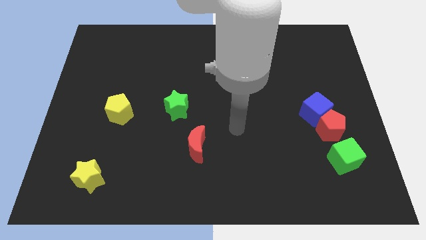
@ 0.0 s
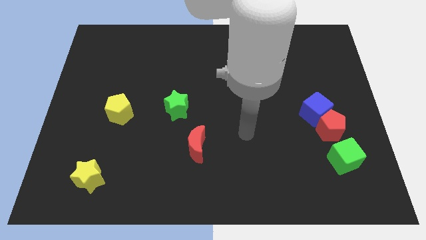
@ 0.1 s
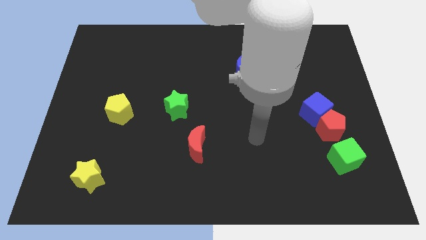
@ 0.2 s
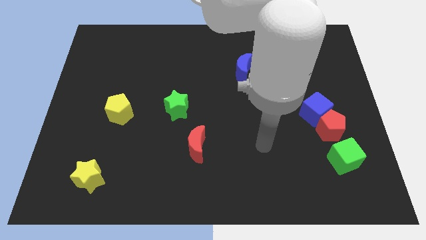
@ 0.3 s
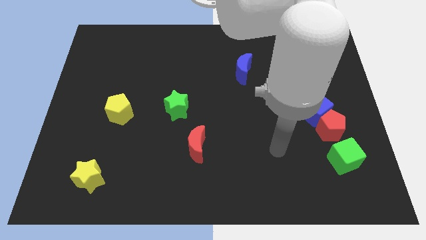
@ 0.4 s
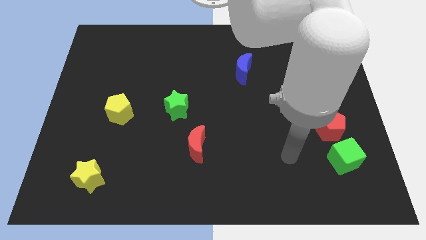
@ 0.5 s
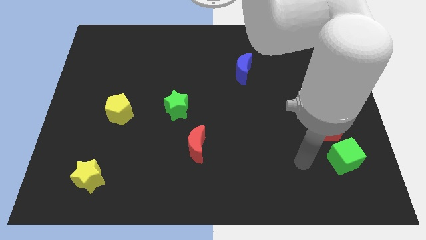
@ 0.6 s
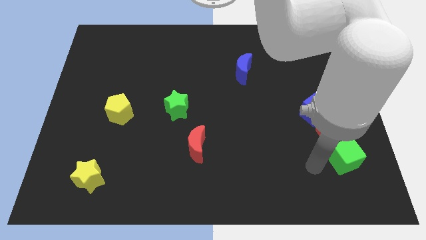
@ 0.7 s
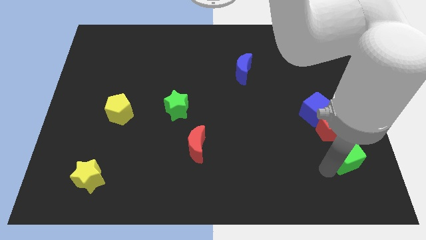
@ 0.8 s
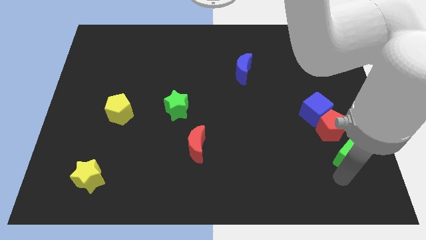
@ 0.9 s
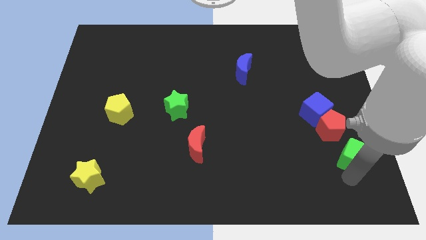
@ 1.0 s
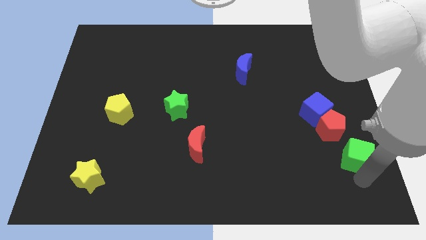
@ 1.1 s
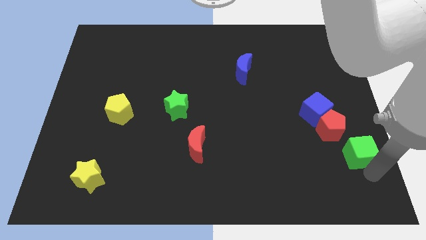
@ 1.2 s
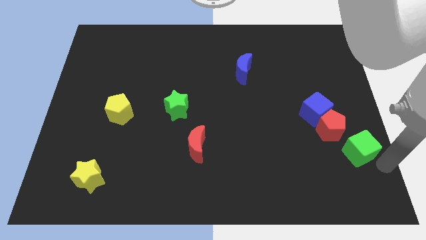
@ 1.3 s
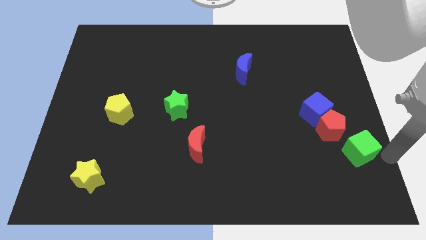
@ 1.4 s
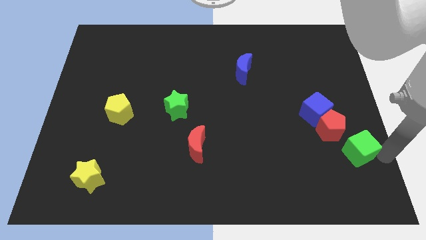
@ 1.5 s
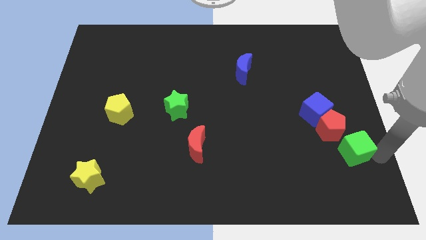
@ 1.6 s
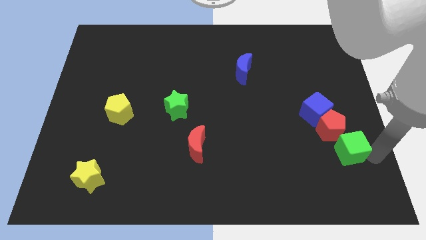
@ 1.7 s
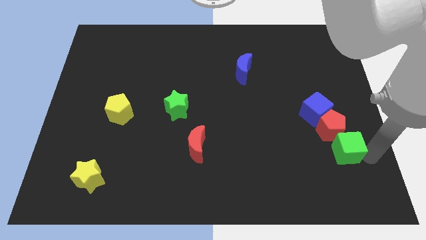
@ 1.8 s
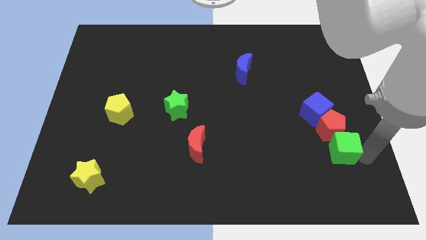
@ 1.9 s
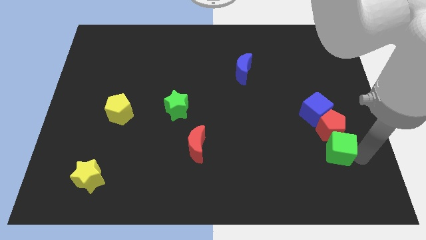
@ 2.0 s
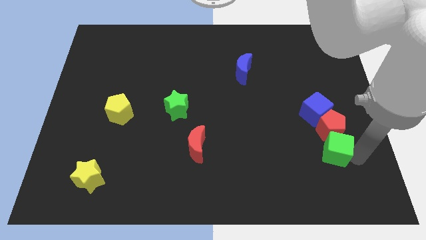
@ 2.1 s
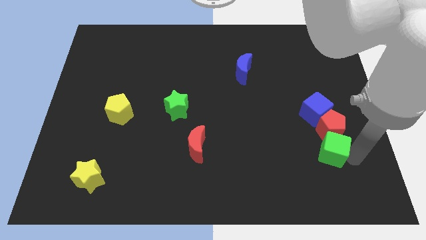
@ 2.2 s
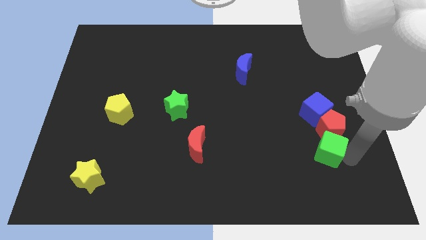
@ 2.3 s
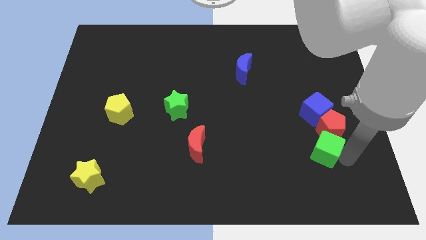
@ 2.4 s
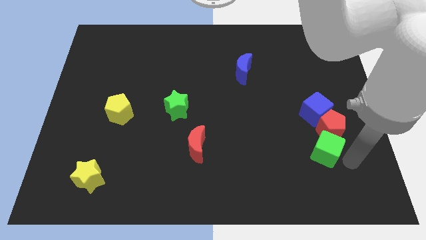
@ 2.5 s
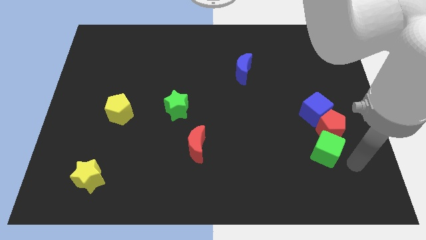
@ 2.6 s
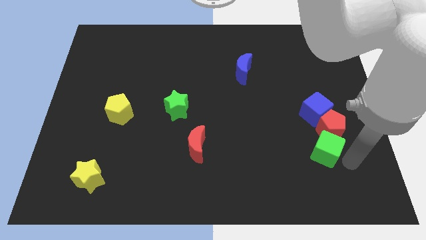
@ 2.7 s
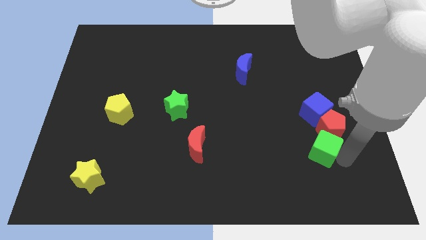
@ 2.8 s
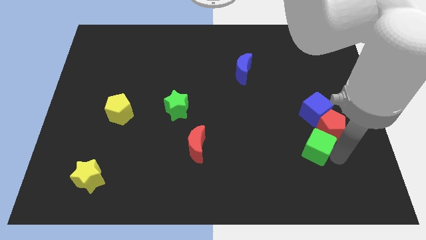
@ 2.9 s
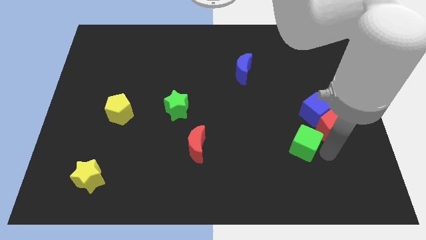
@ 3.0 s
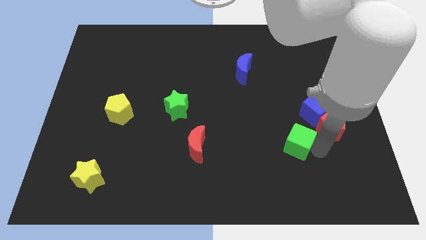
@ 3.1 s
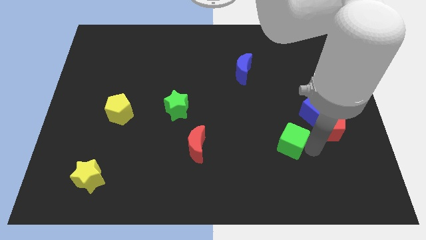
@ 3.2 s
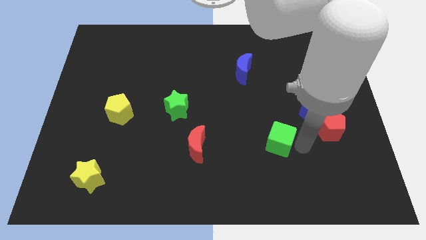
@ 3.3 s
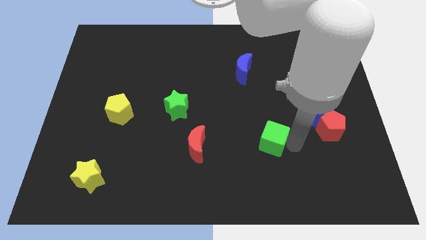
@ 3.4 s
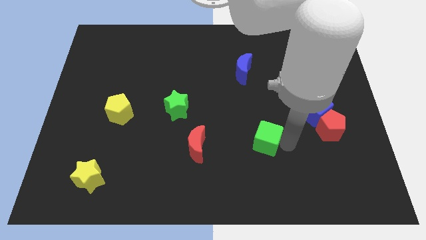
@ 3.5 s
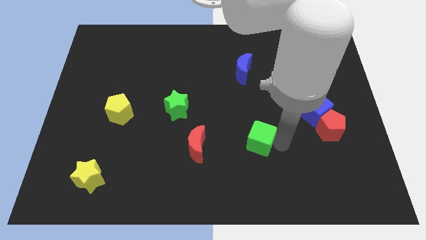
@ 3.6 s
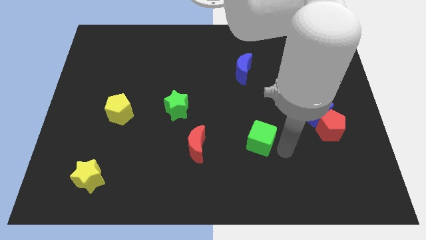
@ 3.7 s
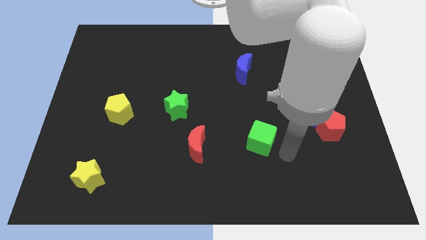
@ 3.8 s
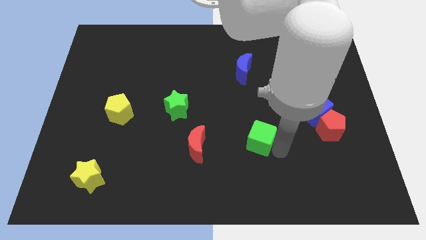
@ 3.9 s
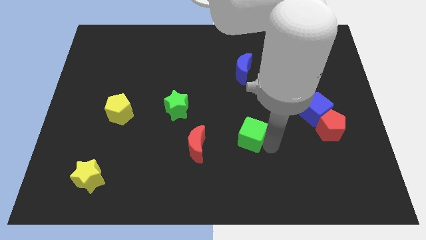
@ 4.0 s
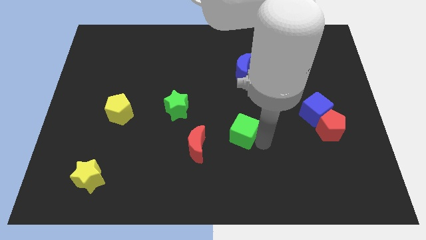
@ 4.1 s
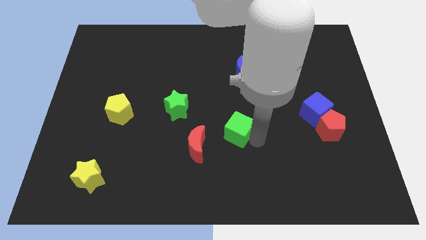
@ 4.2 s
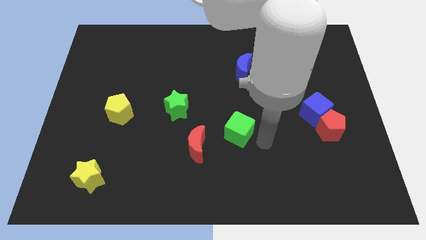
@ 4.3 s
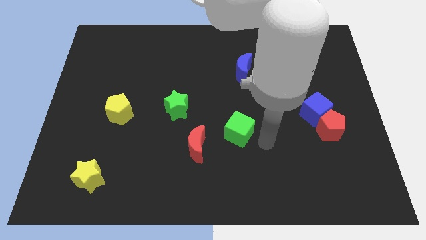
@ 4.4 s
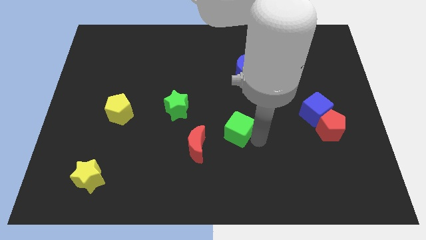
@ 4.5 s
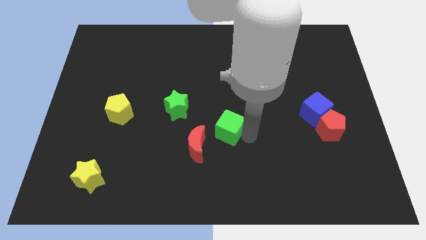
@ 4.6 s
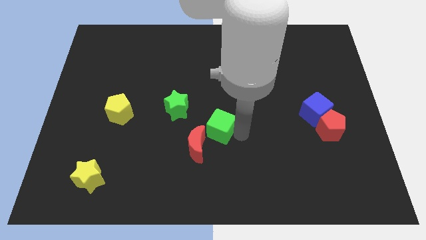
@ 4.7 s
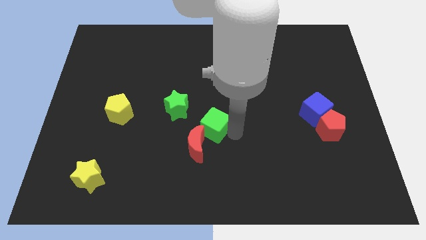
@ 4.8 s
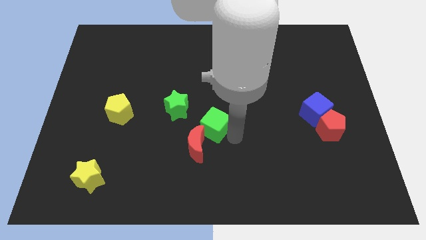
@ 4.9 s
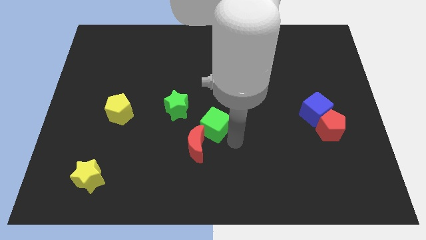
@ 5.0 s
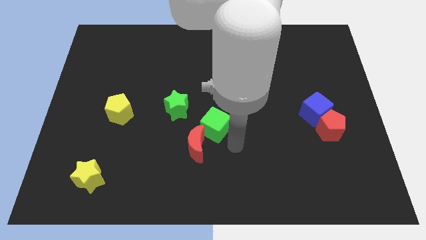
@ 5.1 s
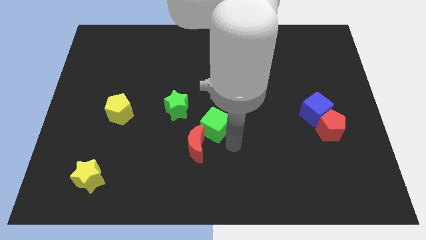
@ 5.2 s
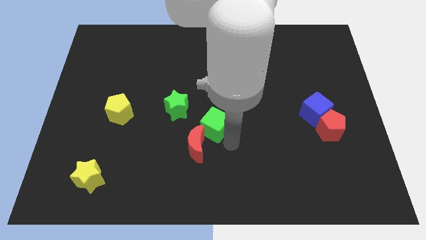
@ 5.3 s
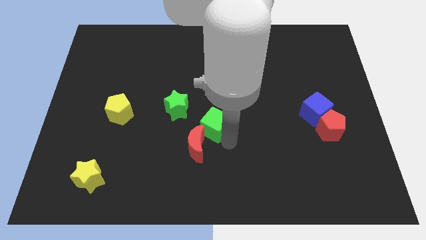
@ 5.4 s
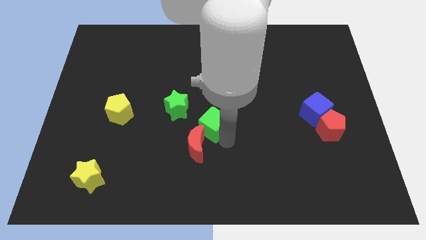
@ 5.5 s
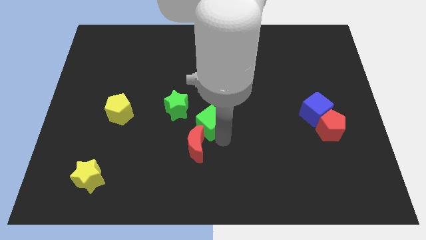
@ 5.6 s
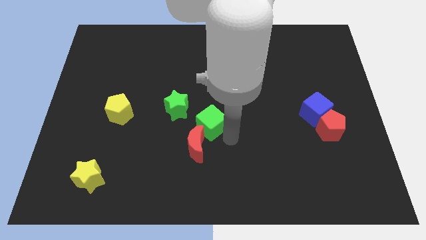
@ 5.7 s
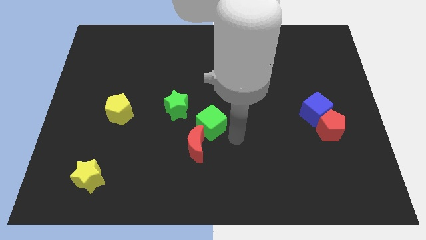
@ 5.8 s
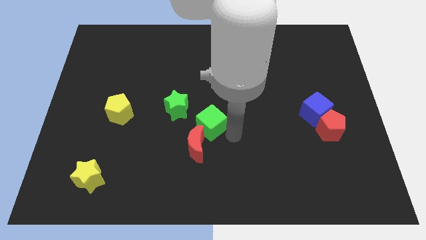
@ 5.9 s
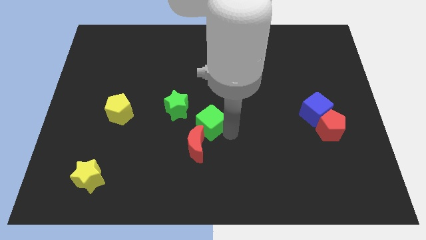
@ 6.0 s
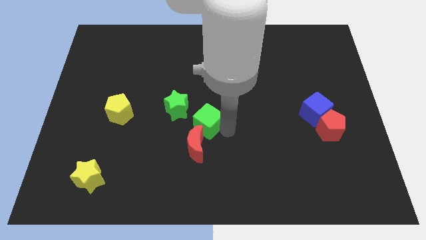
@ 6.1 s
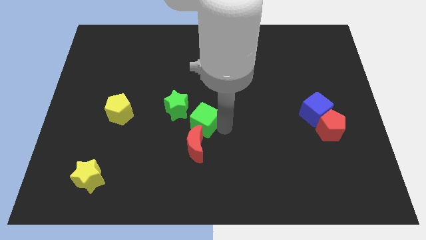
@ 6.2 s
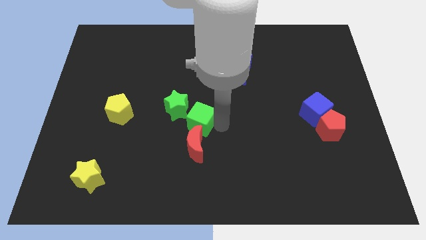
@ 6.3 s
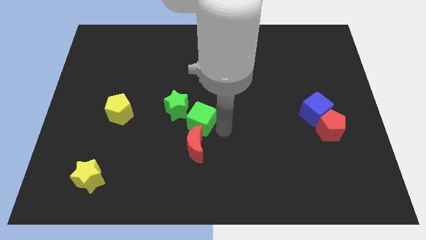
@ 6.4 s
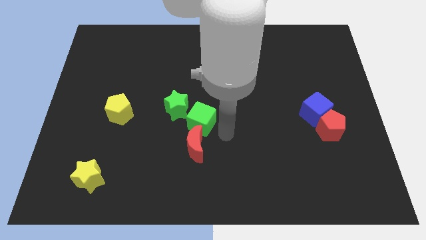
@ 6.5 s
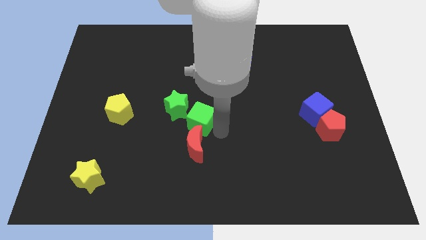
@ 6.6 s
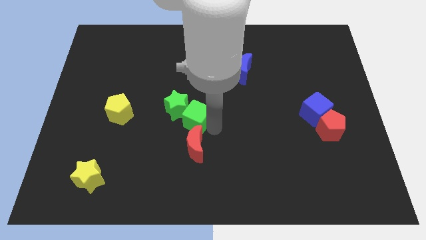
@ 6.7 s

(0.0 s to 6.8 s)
push the green cube close to the green star

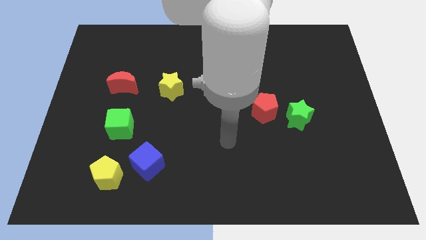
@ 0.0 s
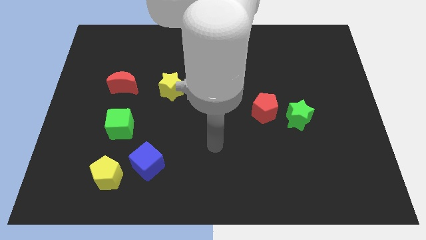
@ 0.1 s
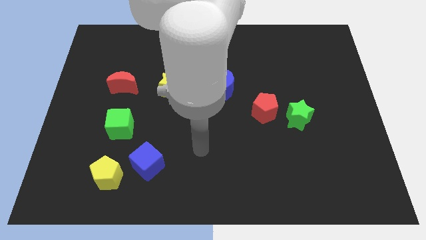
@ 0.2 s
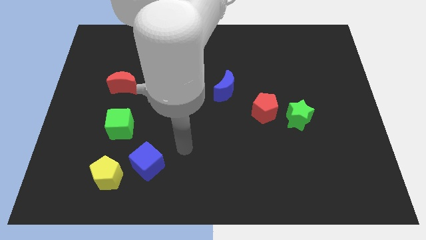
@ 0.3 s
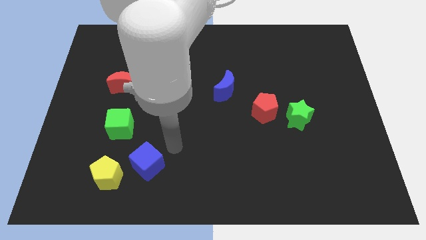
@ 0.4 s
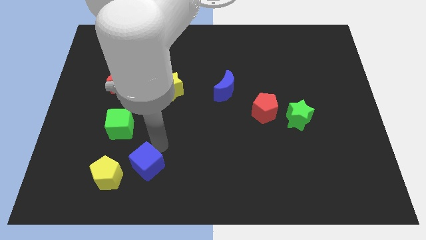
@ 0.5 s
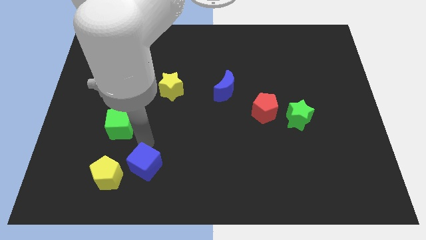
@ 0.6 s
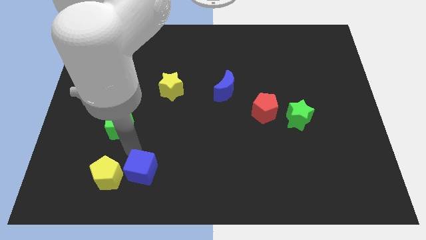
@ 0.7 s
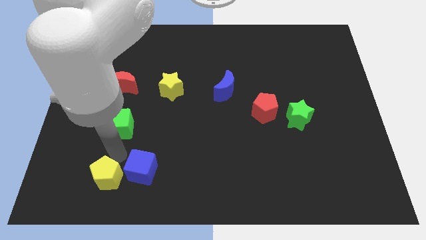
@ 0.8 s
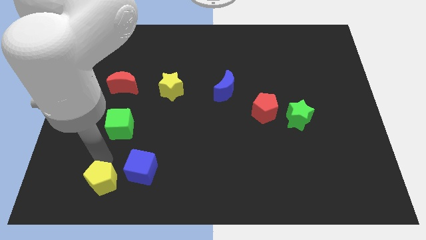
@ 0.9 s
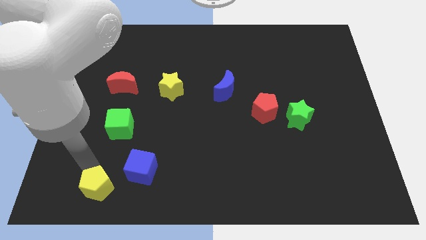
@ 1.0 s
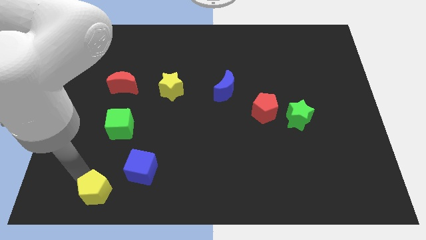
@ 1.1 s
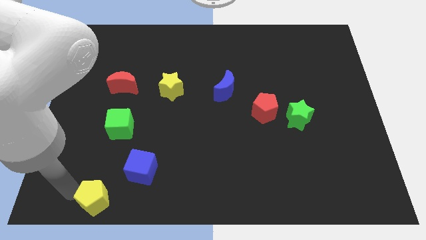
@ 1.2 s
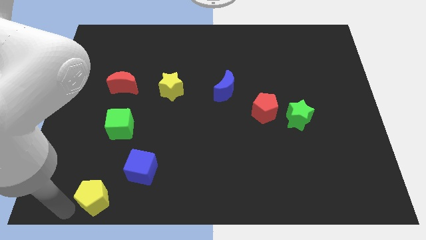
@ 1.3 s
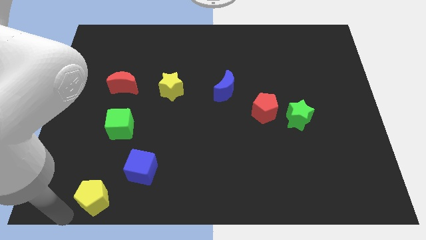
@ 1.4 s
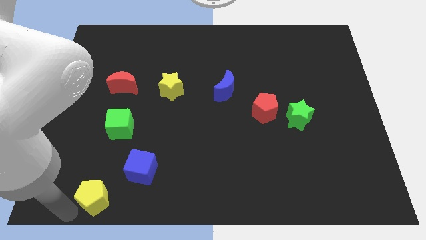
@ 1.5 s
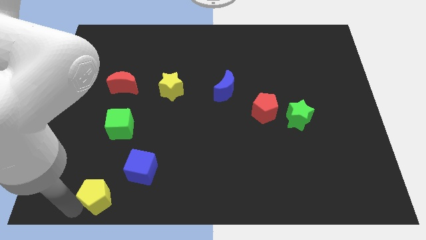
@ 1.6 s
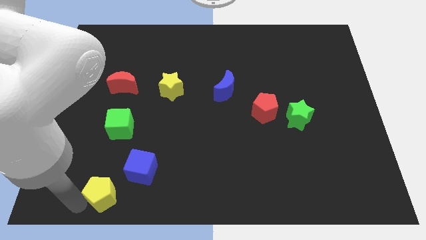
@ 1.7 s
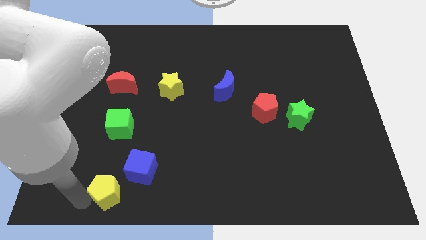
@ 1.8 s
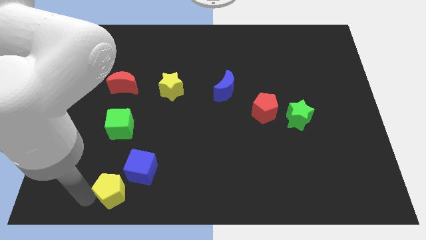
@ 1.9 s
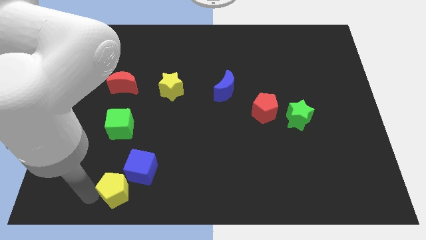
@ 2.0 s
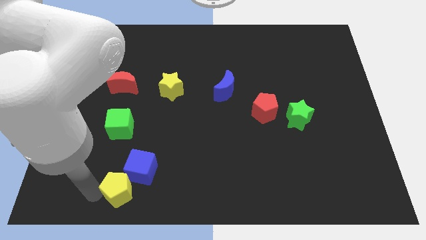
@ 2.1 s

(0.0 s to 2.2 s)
move the yellow pentagon to the blue cube
